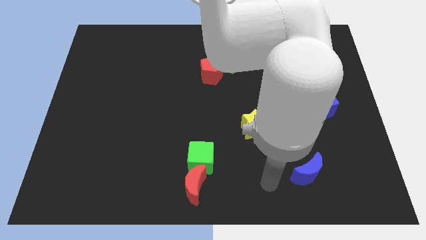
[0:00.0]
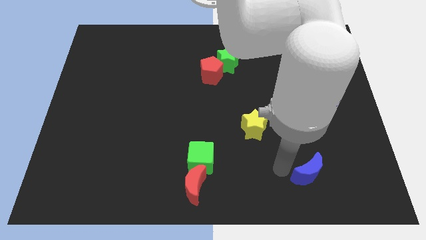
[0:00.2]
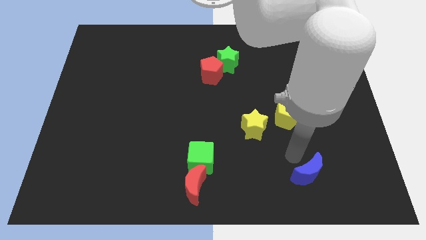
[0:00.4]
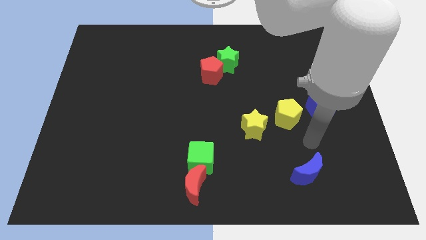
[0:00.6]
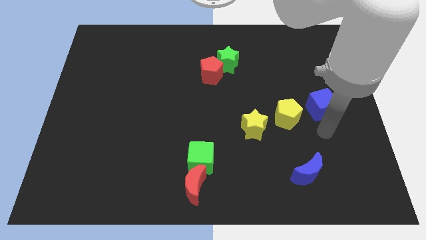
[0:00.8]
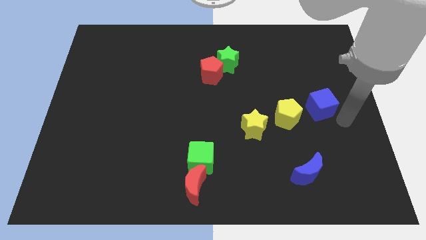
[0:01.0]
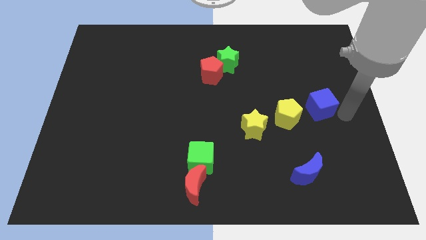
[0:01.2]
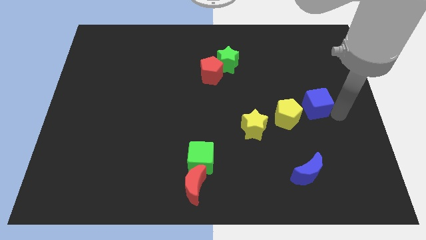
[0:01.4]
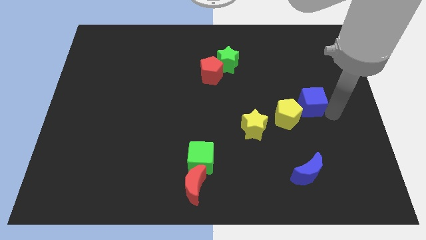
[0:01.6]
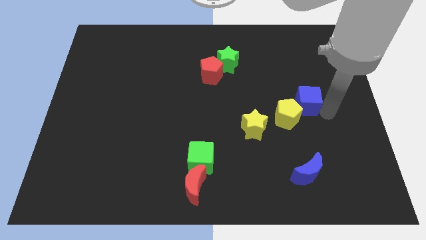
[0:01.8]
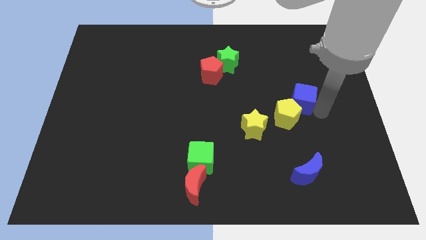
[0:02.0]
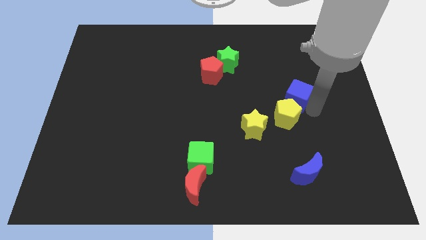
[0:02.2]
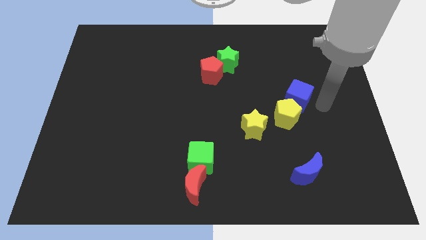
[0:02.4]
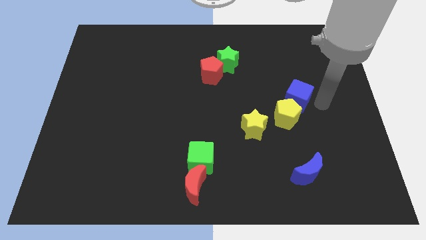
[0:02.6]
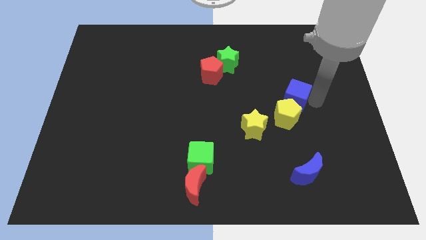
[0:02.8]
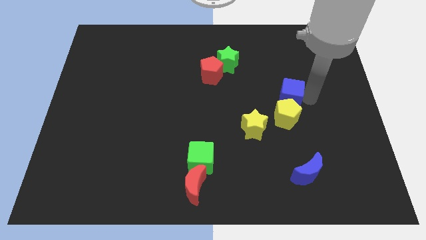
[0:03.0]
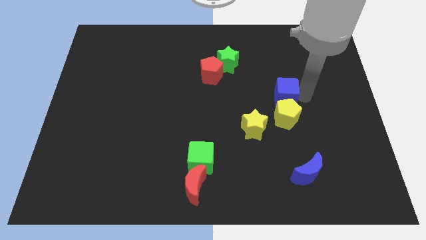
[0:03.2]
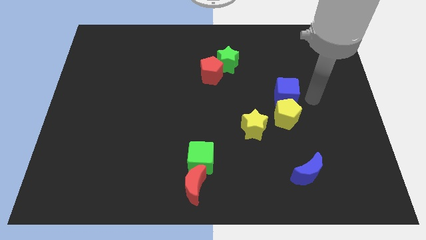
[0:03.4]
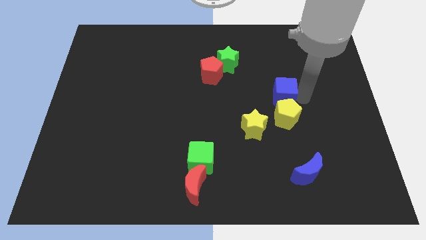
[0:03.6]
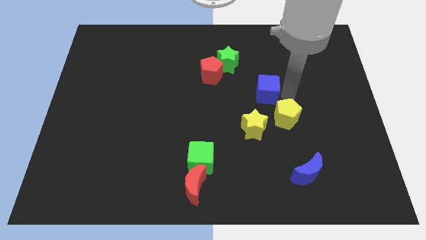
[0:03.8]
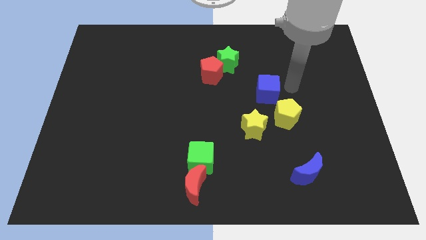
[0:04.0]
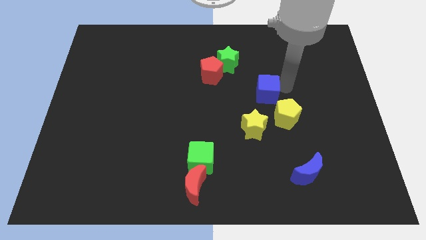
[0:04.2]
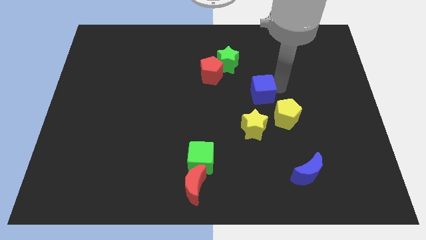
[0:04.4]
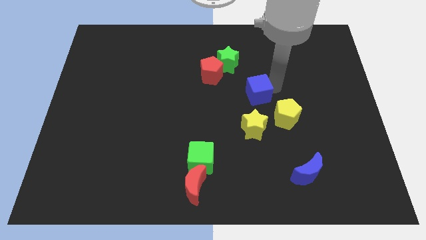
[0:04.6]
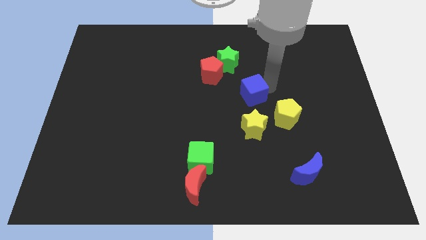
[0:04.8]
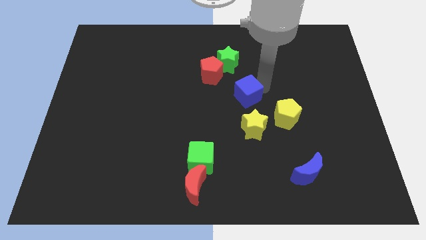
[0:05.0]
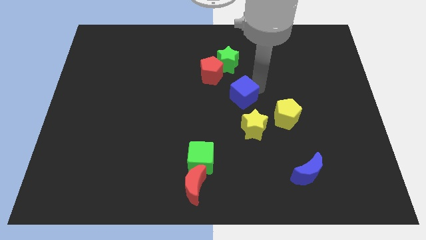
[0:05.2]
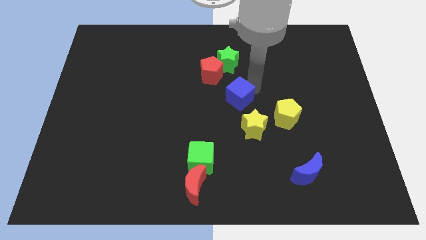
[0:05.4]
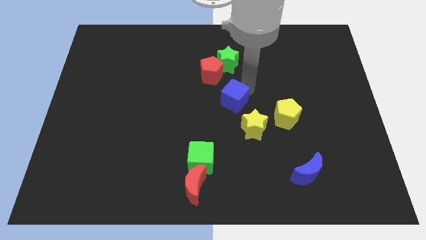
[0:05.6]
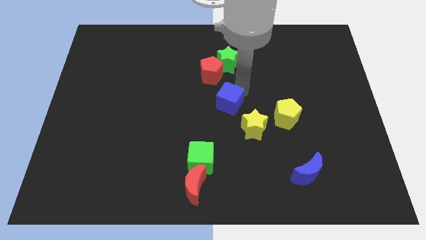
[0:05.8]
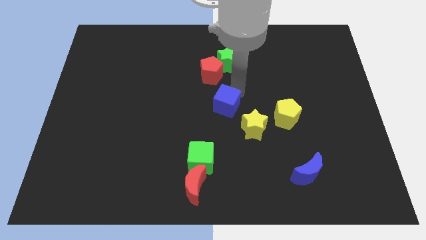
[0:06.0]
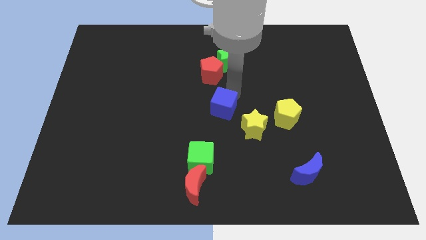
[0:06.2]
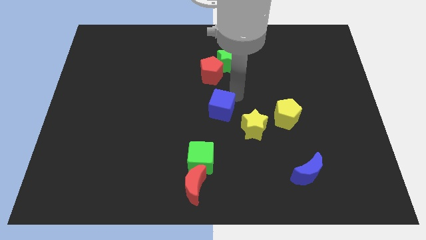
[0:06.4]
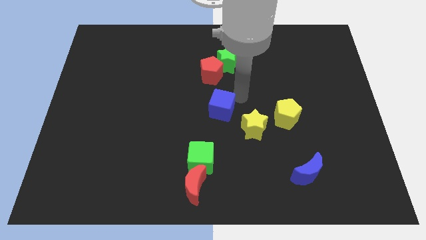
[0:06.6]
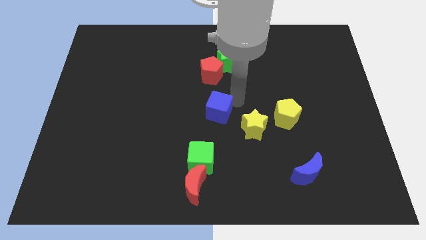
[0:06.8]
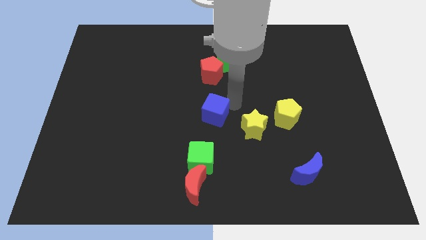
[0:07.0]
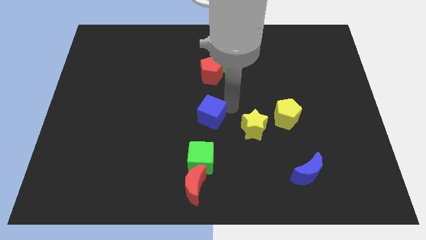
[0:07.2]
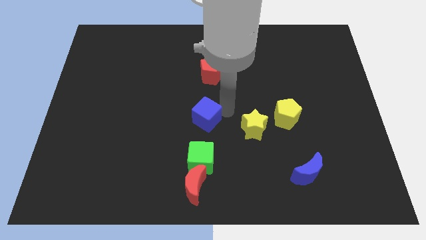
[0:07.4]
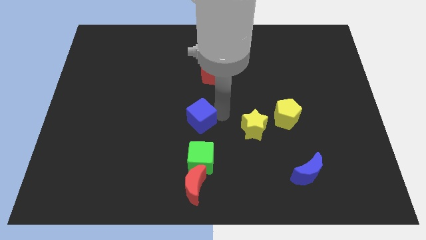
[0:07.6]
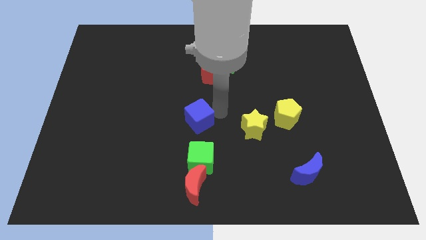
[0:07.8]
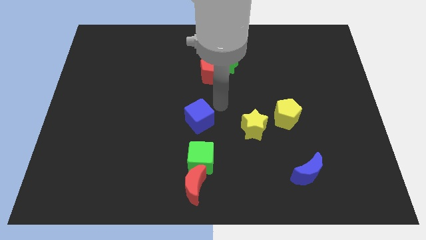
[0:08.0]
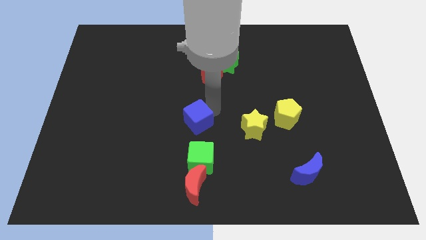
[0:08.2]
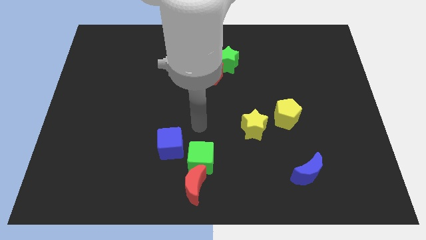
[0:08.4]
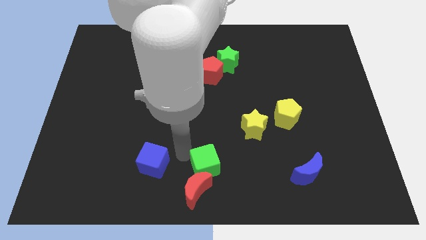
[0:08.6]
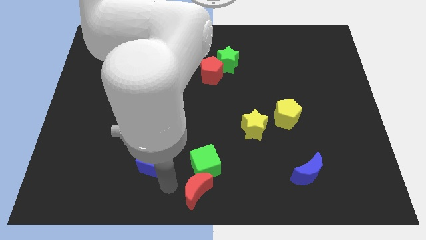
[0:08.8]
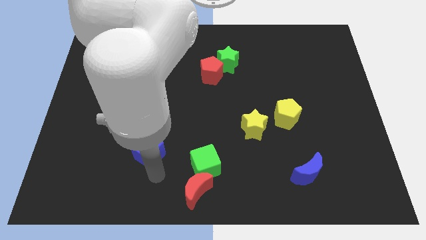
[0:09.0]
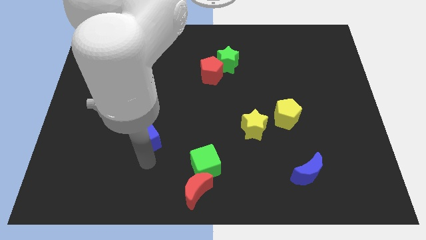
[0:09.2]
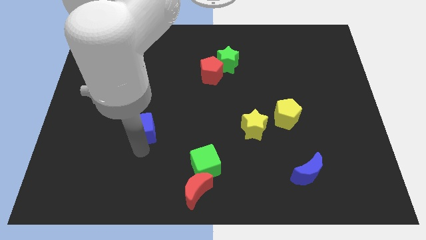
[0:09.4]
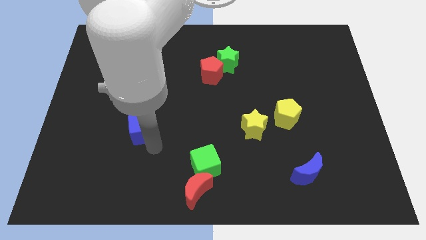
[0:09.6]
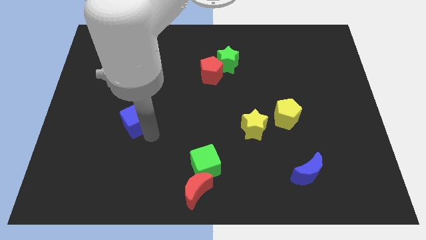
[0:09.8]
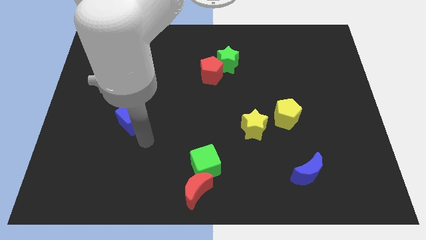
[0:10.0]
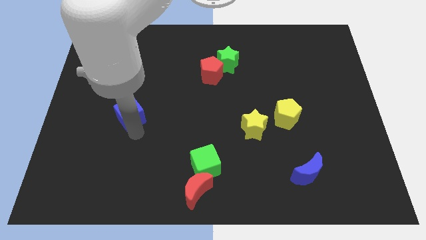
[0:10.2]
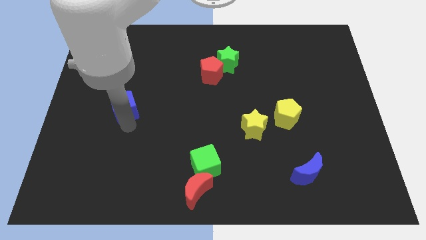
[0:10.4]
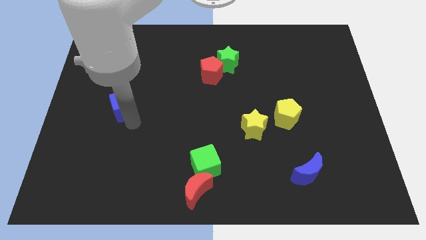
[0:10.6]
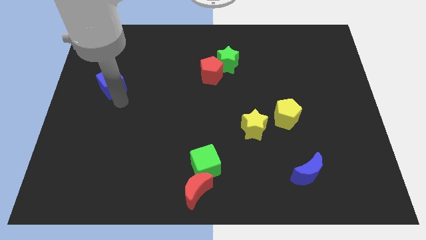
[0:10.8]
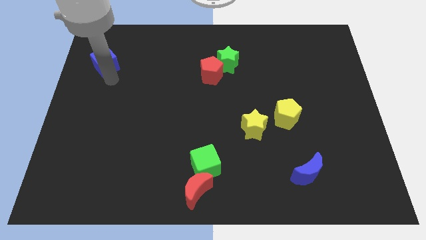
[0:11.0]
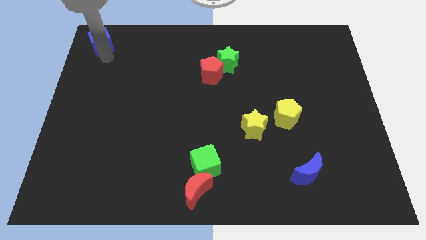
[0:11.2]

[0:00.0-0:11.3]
put the blue cube to the top left of the board
